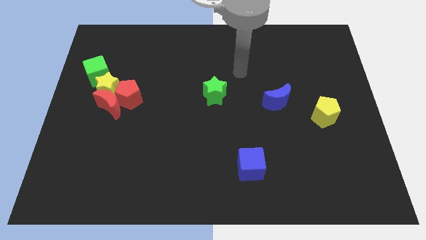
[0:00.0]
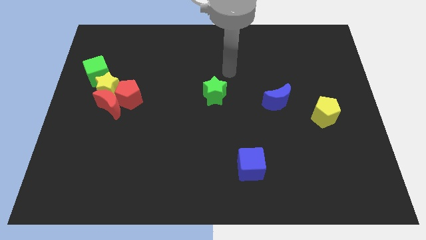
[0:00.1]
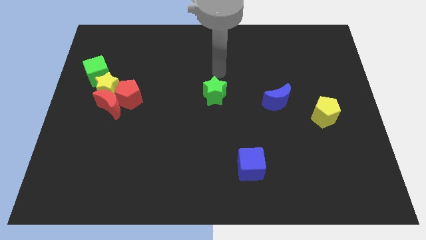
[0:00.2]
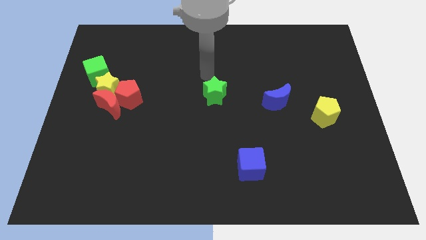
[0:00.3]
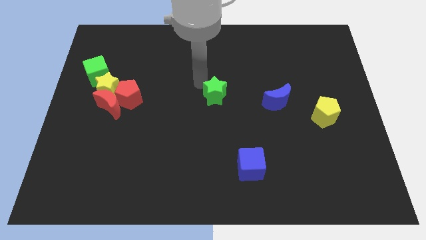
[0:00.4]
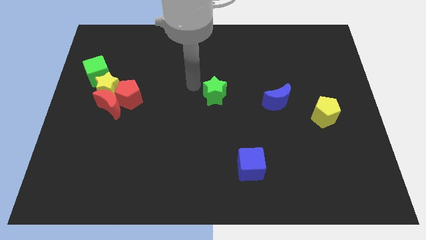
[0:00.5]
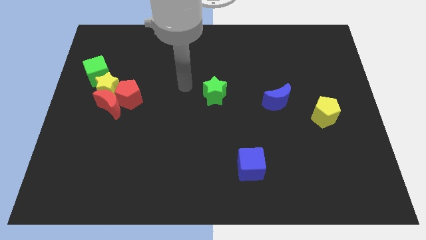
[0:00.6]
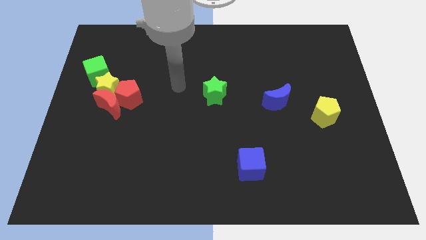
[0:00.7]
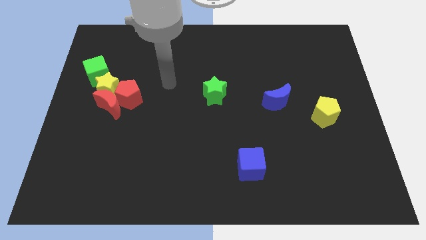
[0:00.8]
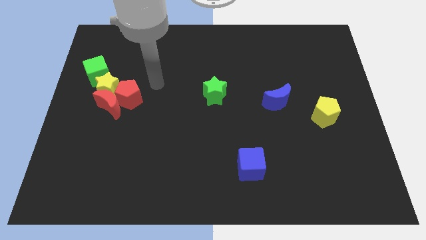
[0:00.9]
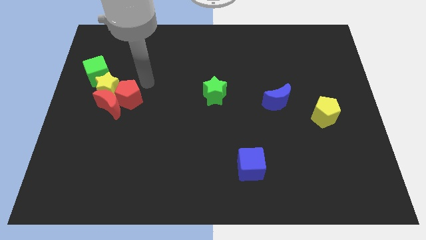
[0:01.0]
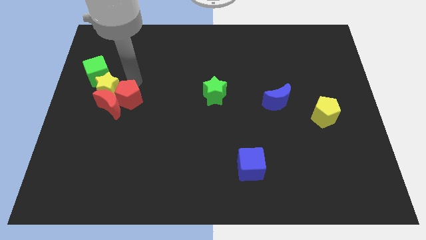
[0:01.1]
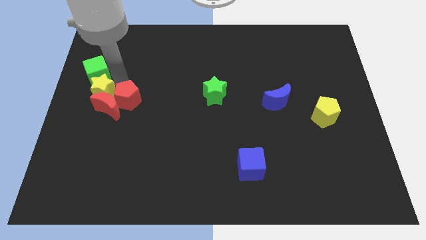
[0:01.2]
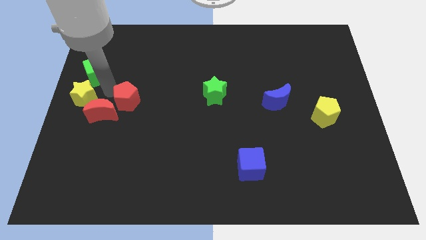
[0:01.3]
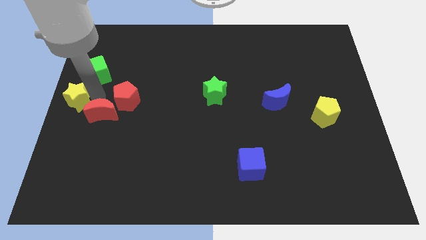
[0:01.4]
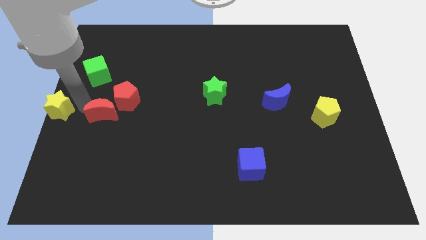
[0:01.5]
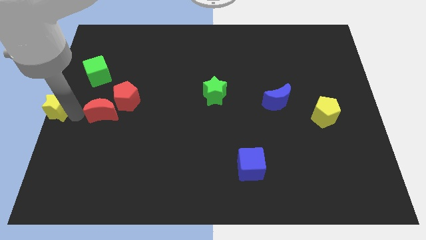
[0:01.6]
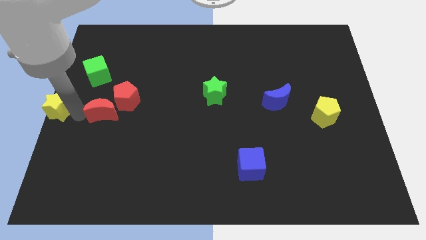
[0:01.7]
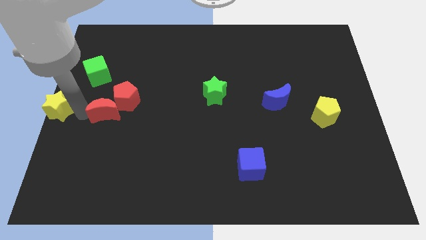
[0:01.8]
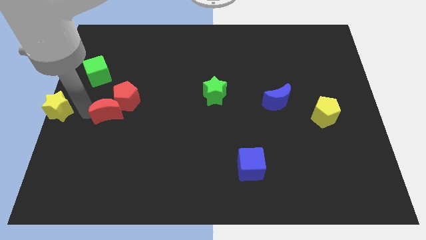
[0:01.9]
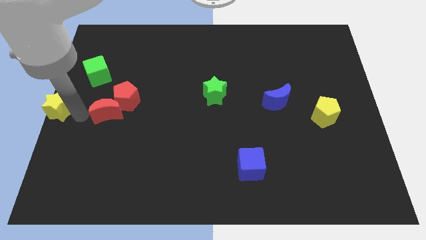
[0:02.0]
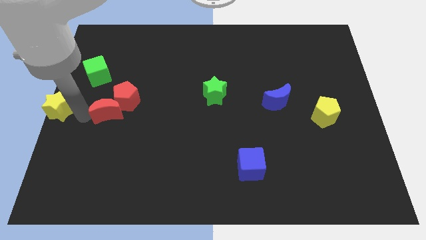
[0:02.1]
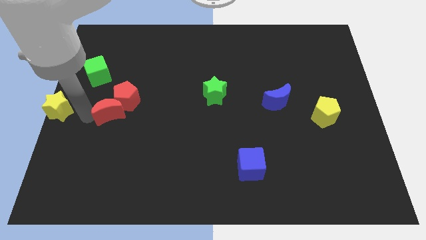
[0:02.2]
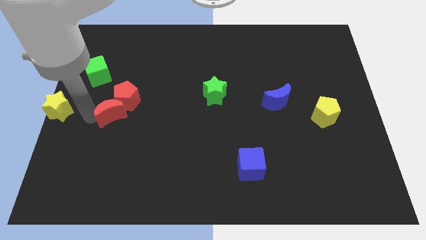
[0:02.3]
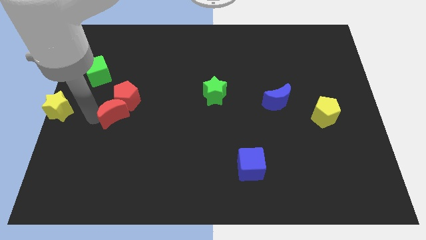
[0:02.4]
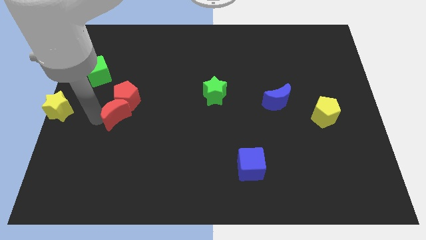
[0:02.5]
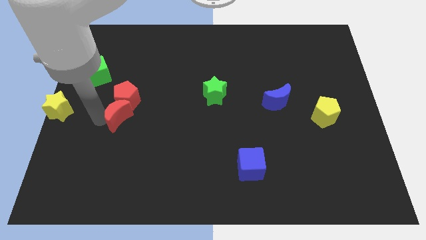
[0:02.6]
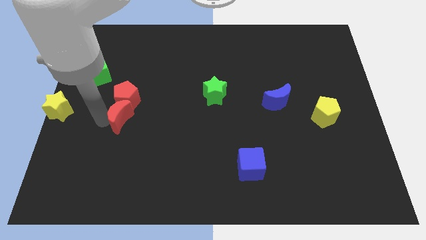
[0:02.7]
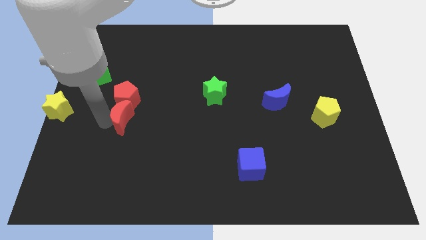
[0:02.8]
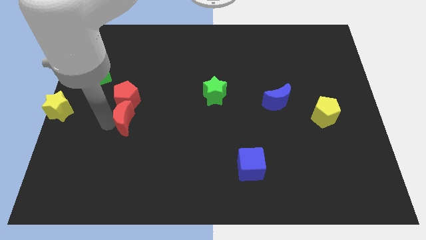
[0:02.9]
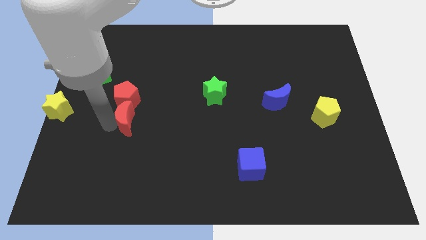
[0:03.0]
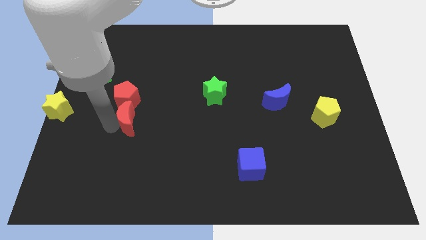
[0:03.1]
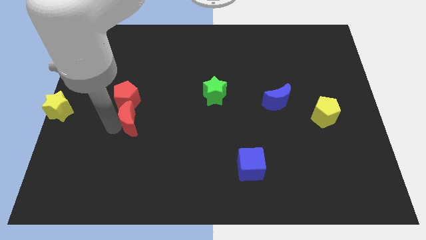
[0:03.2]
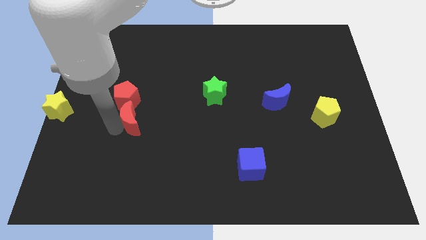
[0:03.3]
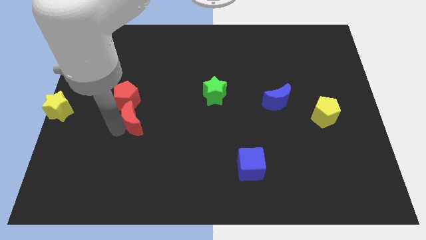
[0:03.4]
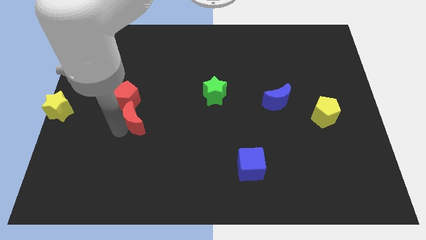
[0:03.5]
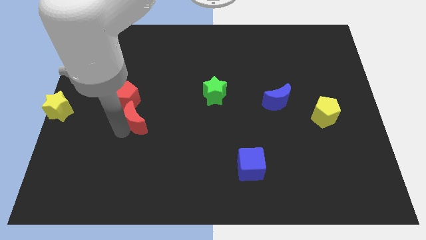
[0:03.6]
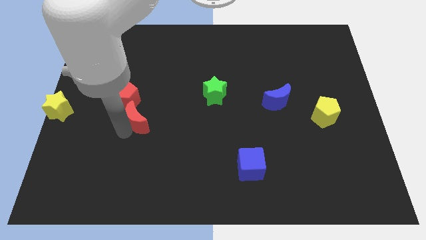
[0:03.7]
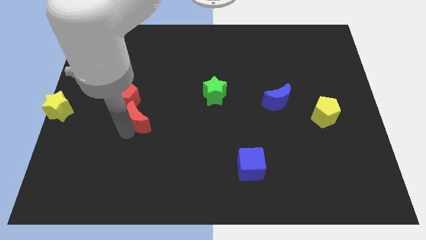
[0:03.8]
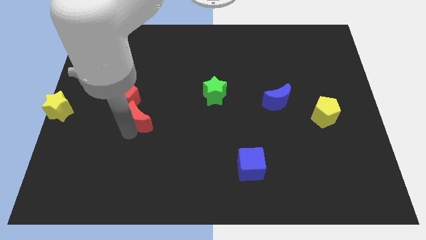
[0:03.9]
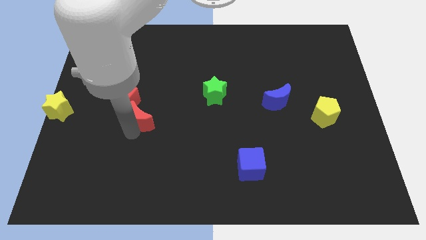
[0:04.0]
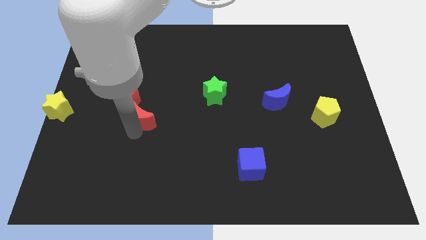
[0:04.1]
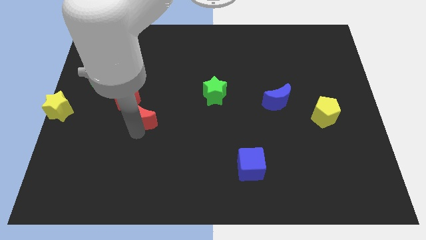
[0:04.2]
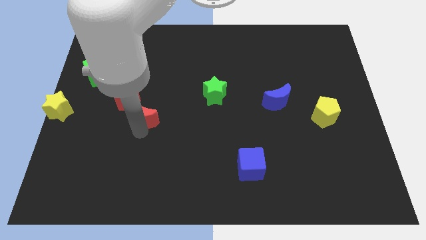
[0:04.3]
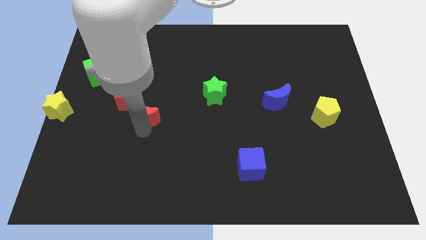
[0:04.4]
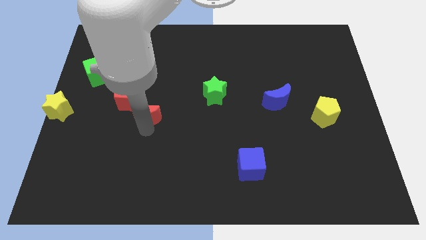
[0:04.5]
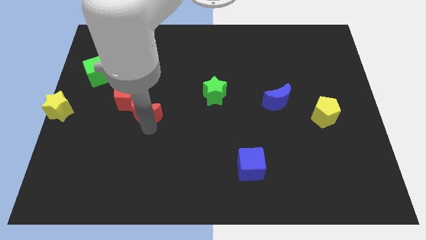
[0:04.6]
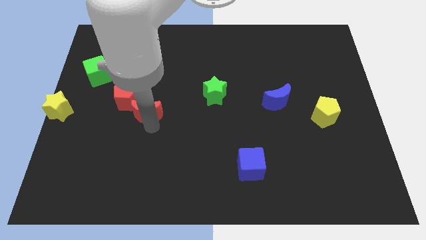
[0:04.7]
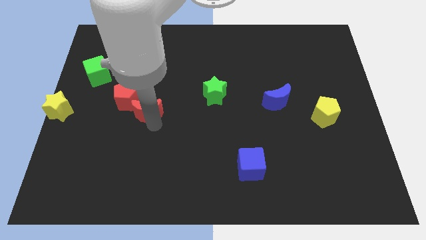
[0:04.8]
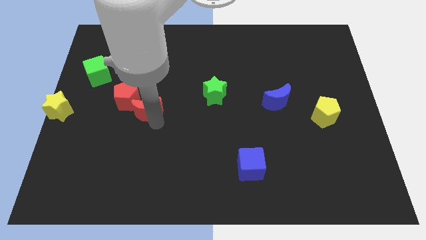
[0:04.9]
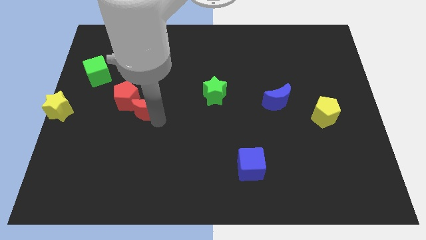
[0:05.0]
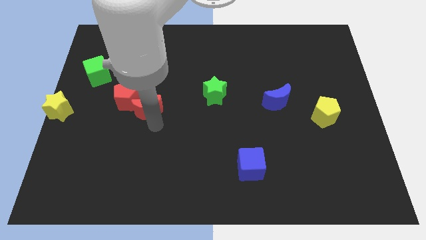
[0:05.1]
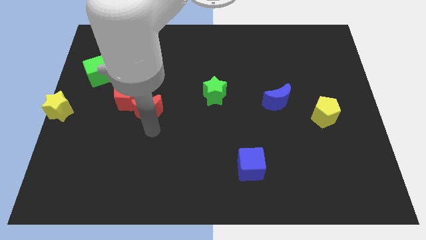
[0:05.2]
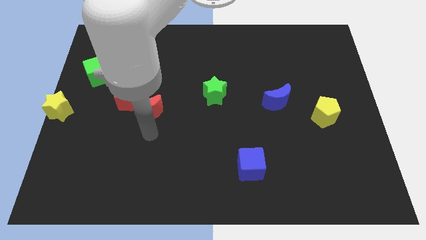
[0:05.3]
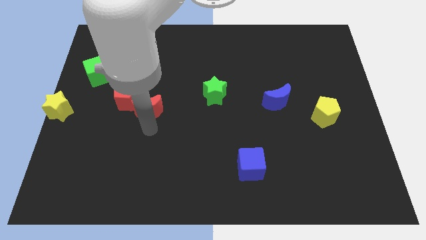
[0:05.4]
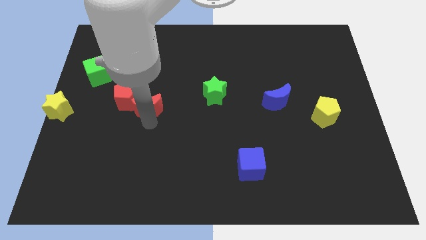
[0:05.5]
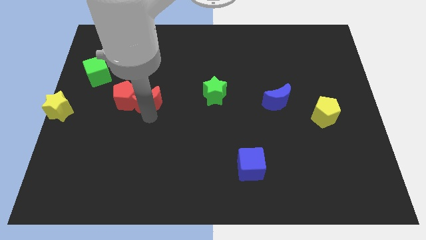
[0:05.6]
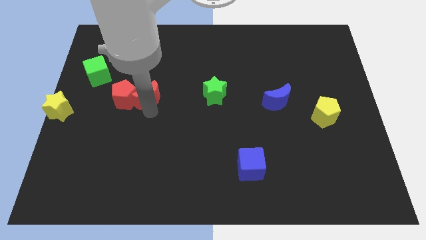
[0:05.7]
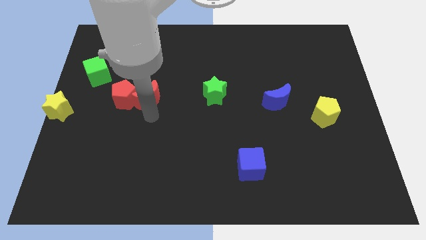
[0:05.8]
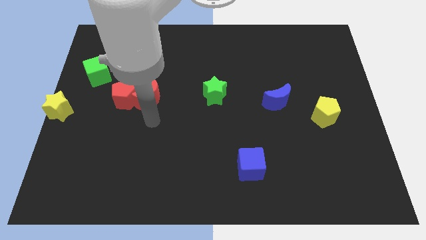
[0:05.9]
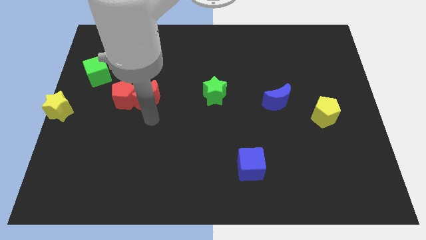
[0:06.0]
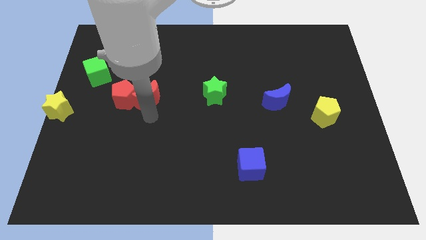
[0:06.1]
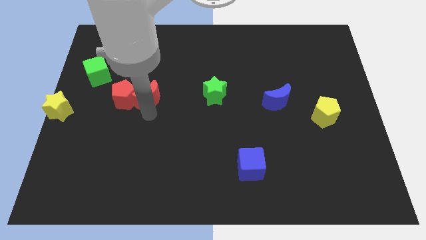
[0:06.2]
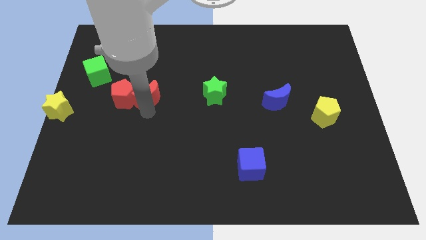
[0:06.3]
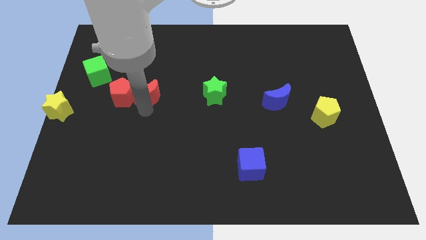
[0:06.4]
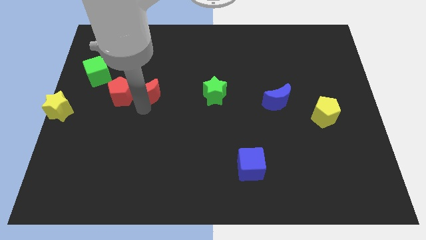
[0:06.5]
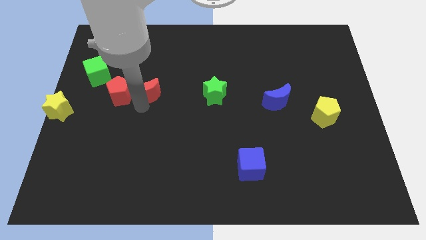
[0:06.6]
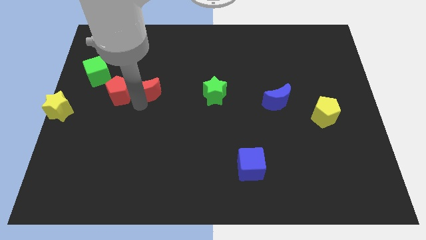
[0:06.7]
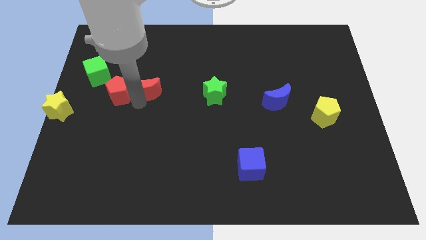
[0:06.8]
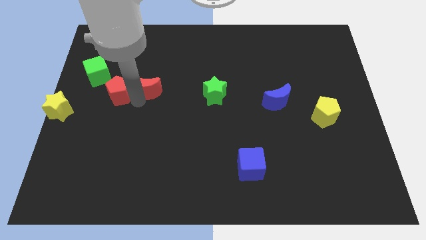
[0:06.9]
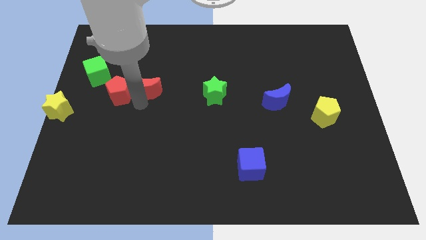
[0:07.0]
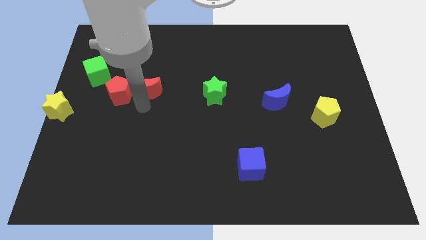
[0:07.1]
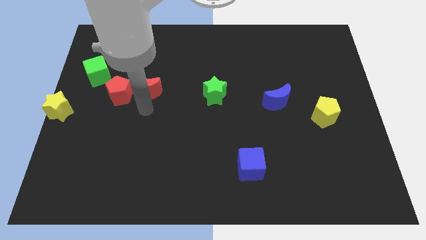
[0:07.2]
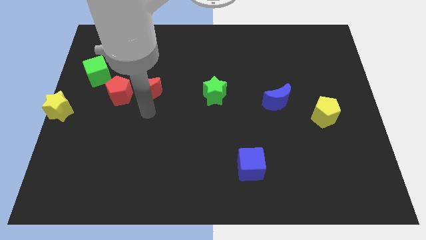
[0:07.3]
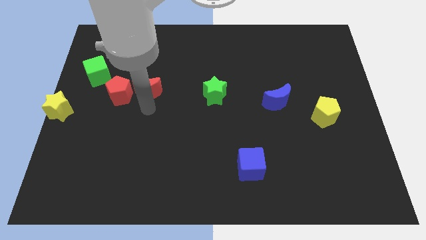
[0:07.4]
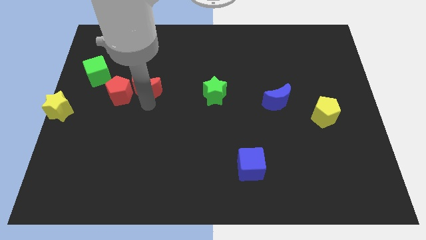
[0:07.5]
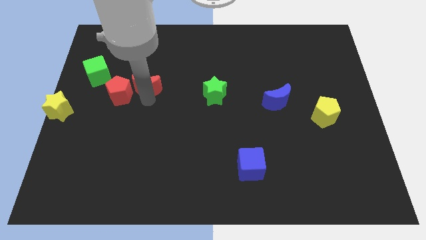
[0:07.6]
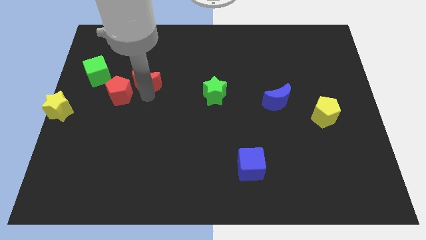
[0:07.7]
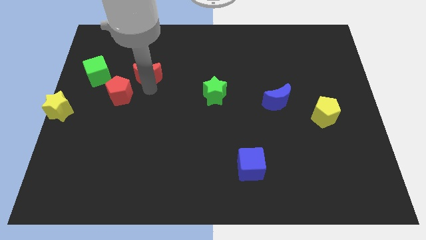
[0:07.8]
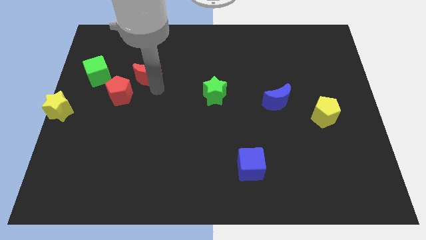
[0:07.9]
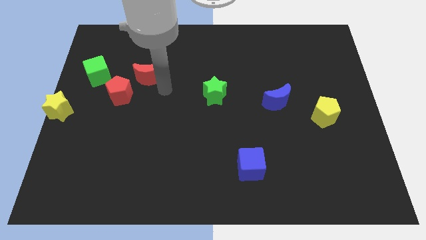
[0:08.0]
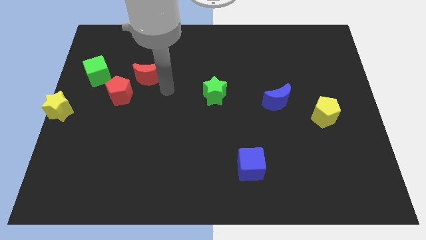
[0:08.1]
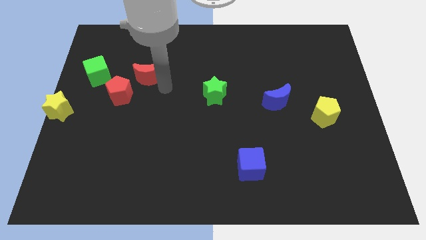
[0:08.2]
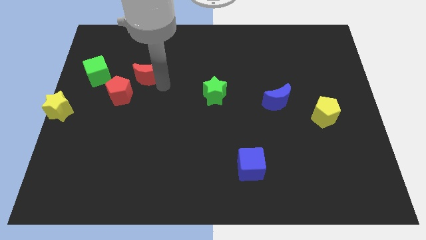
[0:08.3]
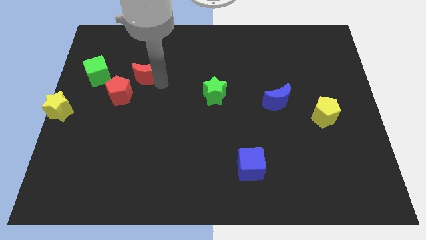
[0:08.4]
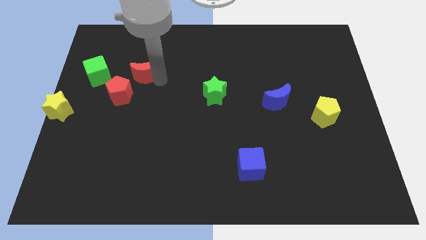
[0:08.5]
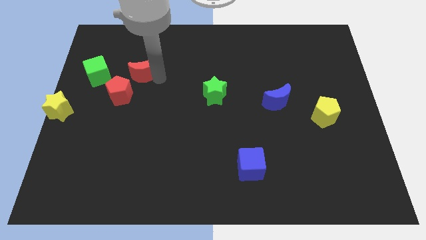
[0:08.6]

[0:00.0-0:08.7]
push the red moon above the red pentagon
